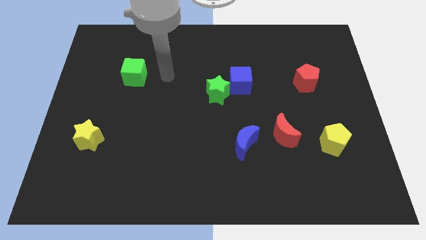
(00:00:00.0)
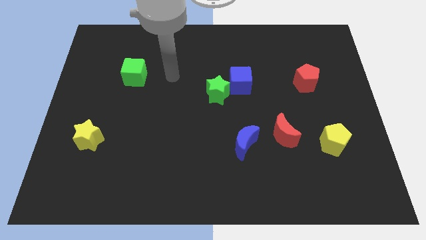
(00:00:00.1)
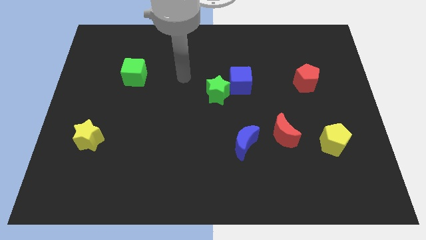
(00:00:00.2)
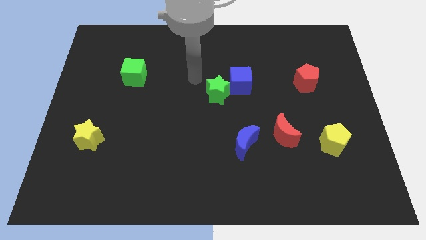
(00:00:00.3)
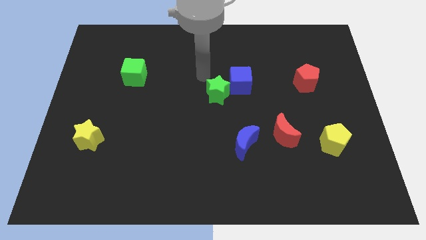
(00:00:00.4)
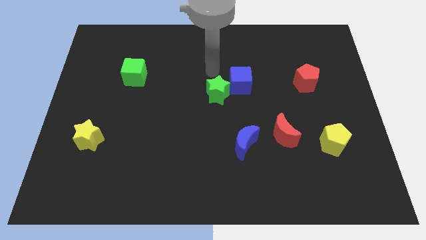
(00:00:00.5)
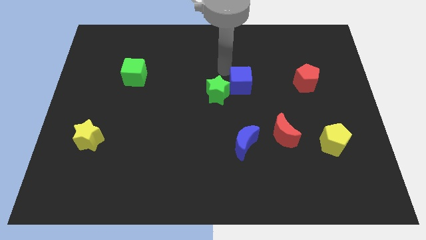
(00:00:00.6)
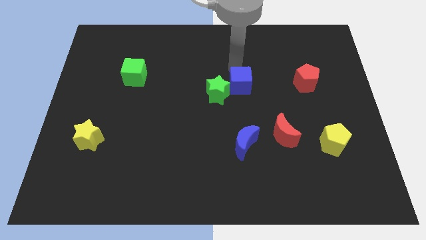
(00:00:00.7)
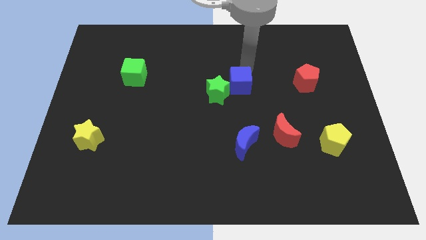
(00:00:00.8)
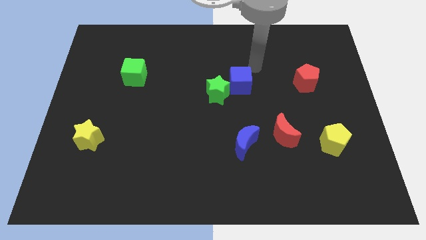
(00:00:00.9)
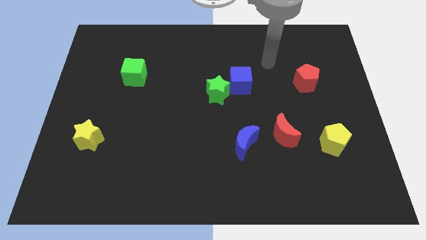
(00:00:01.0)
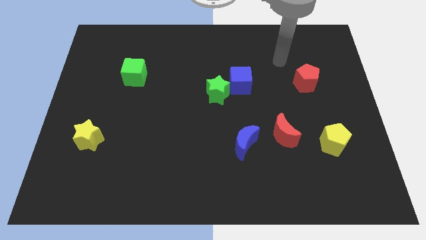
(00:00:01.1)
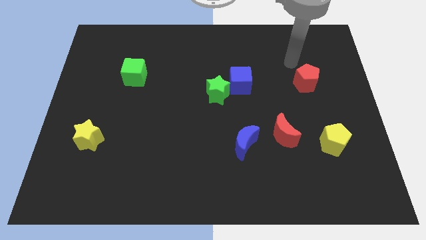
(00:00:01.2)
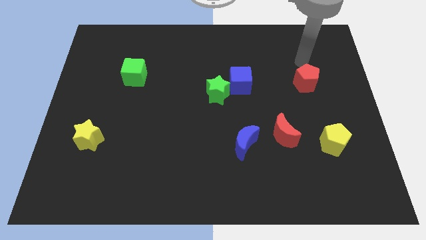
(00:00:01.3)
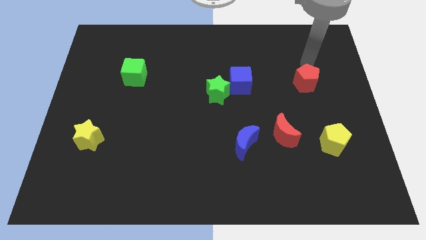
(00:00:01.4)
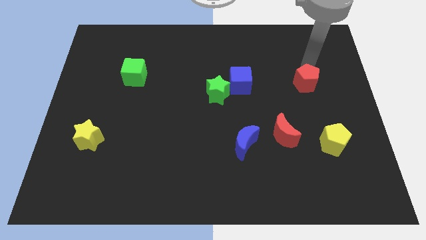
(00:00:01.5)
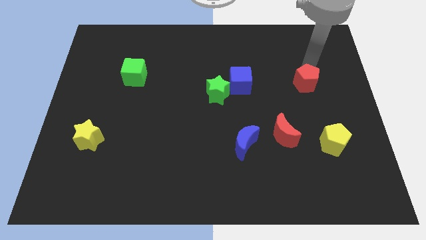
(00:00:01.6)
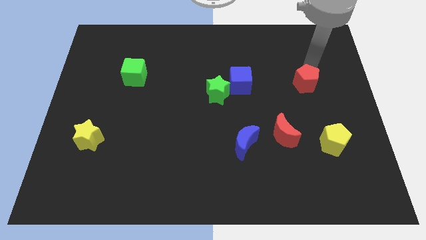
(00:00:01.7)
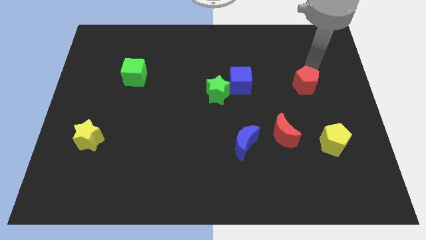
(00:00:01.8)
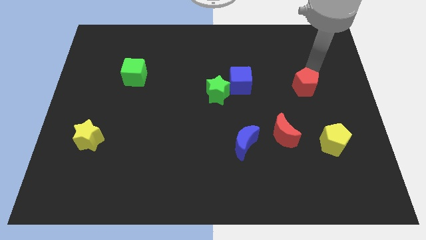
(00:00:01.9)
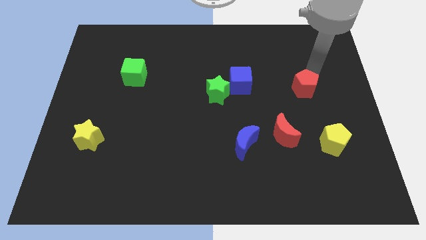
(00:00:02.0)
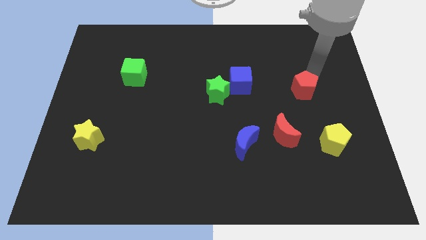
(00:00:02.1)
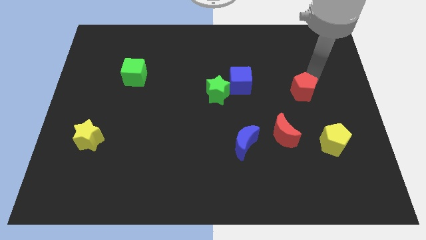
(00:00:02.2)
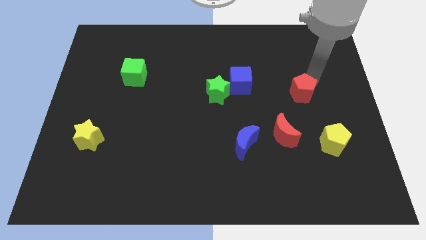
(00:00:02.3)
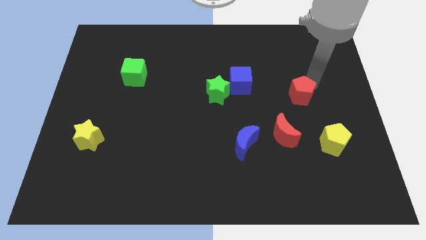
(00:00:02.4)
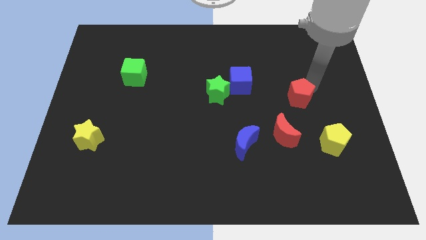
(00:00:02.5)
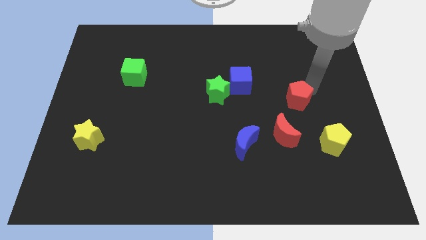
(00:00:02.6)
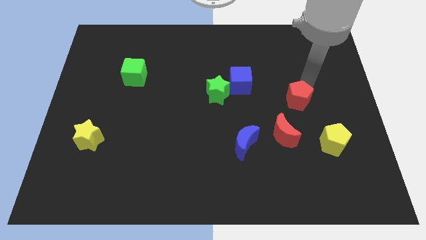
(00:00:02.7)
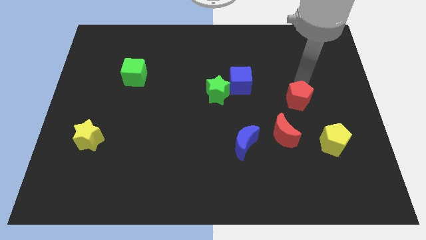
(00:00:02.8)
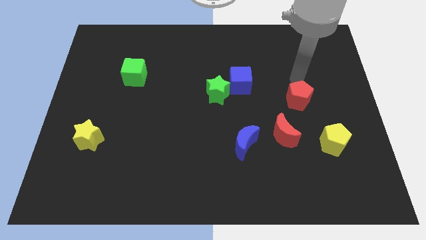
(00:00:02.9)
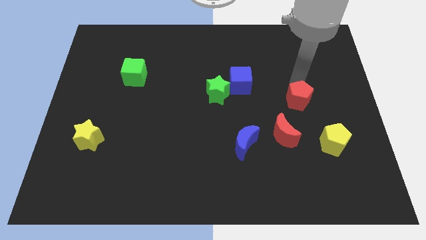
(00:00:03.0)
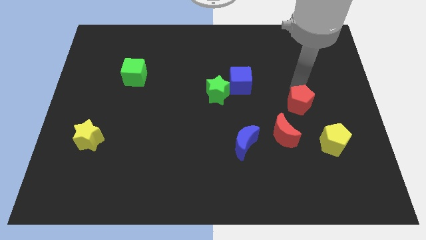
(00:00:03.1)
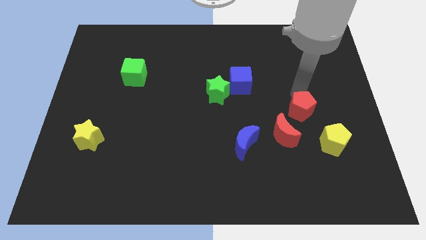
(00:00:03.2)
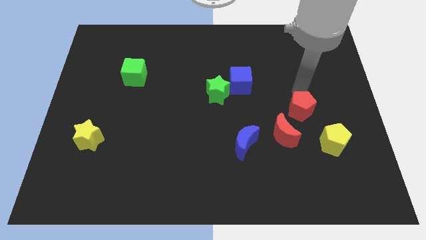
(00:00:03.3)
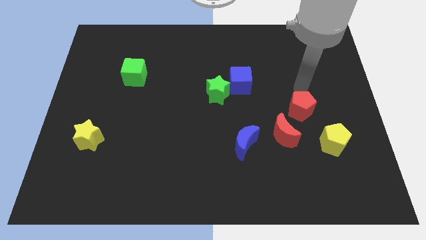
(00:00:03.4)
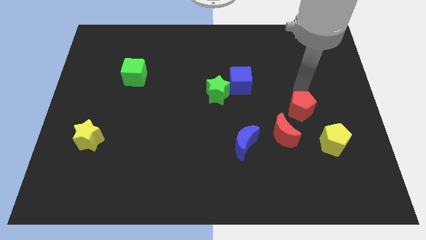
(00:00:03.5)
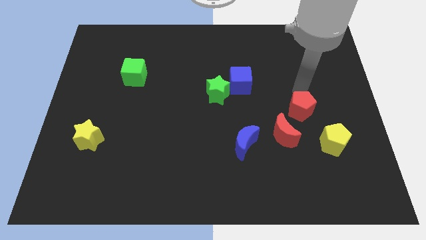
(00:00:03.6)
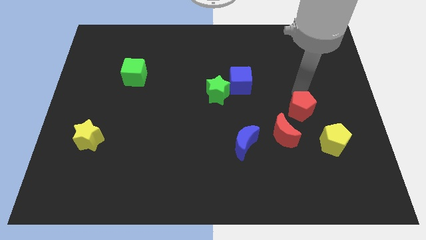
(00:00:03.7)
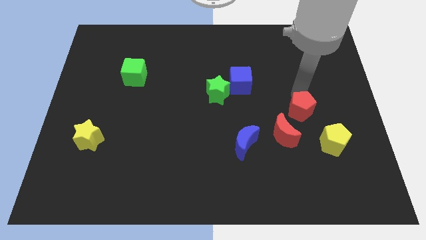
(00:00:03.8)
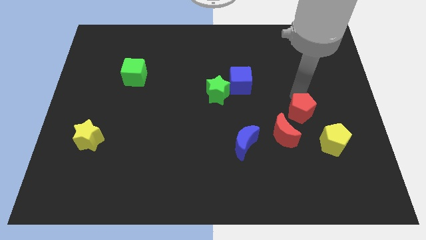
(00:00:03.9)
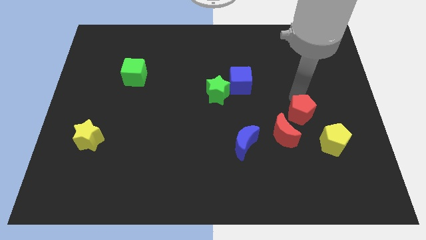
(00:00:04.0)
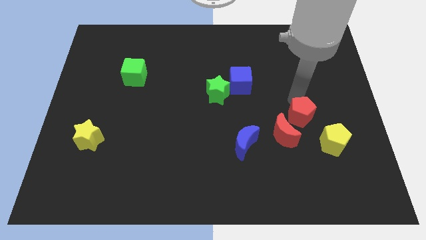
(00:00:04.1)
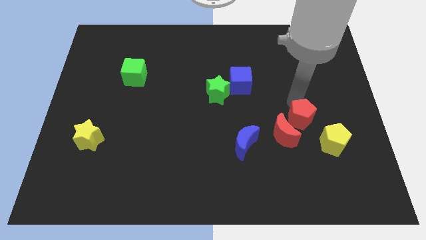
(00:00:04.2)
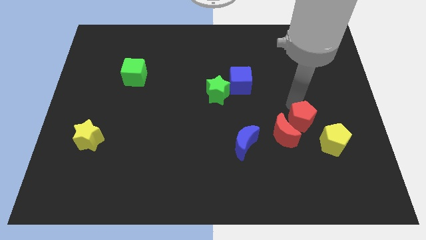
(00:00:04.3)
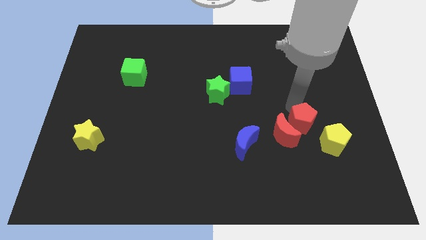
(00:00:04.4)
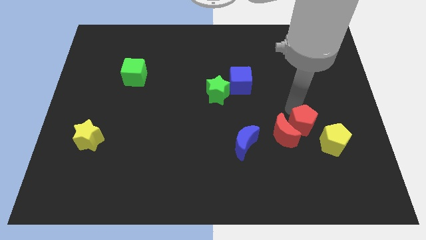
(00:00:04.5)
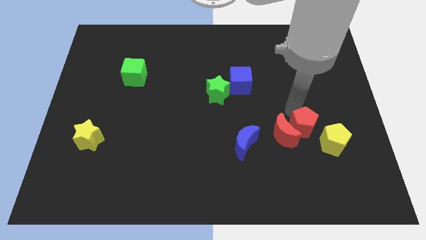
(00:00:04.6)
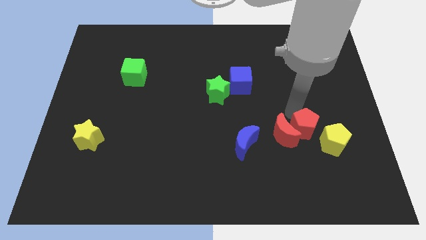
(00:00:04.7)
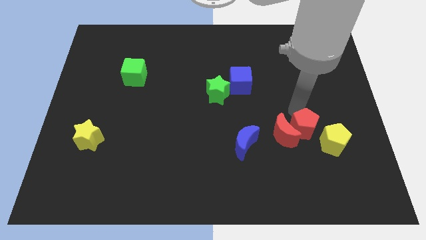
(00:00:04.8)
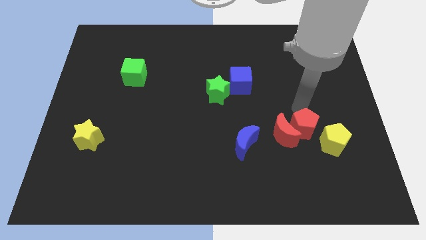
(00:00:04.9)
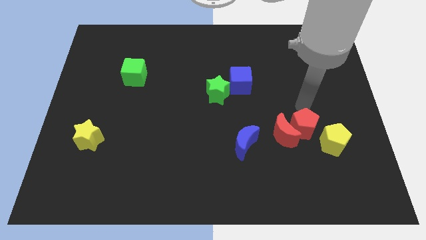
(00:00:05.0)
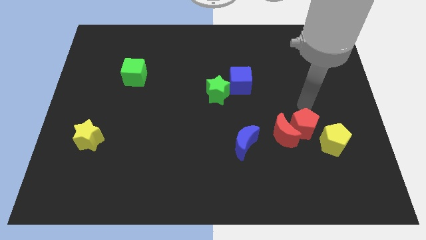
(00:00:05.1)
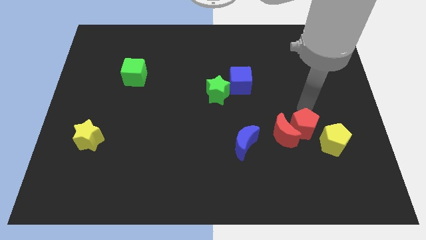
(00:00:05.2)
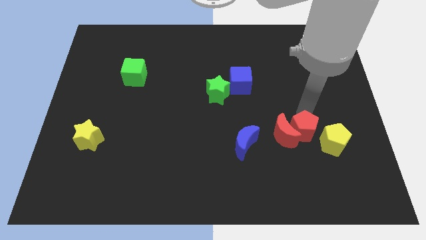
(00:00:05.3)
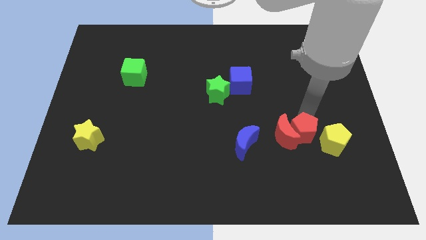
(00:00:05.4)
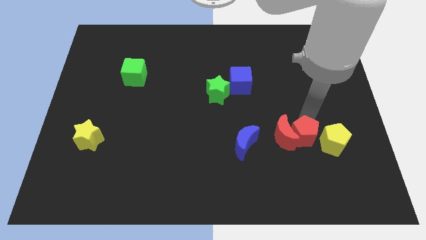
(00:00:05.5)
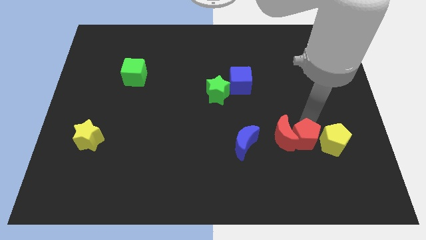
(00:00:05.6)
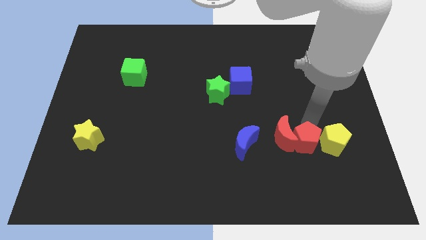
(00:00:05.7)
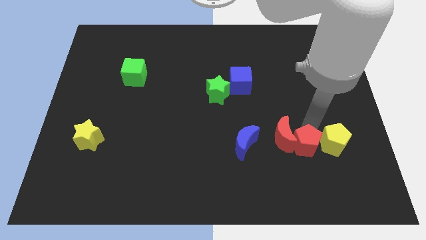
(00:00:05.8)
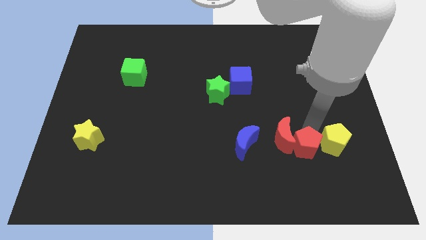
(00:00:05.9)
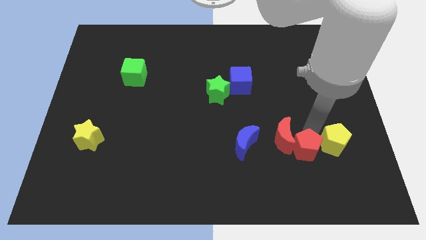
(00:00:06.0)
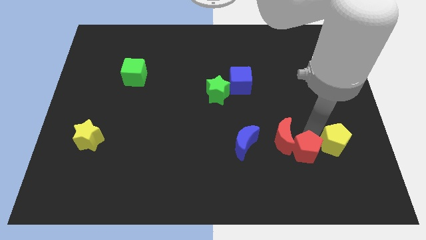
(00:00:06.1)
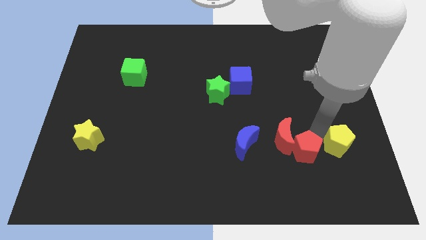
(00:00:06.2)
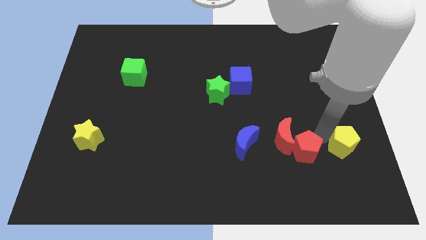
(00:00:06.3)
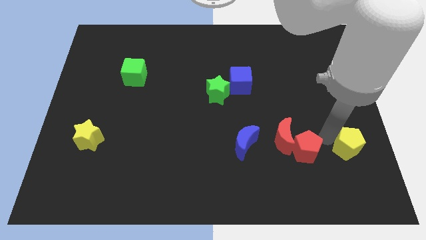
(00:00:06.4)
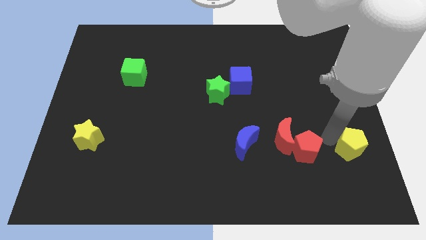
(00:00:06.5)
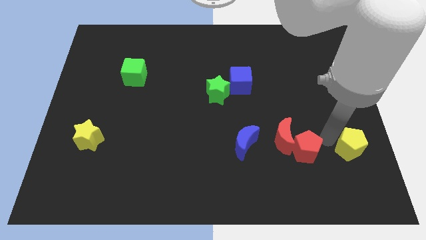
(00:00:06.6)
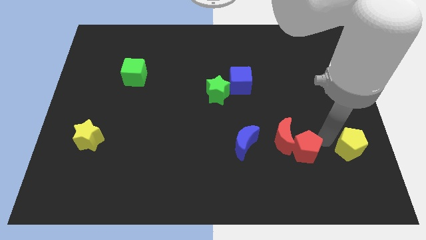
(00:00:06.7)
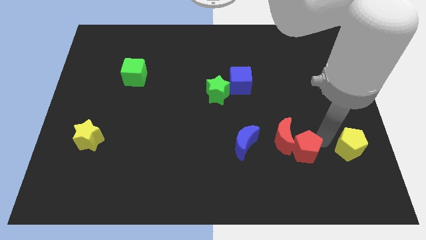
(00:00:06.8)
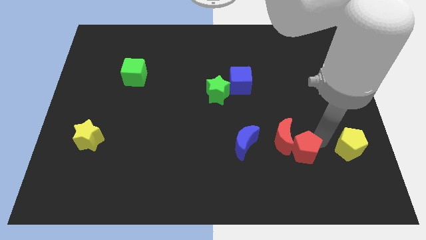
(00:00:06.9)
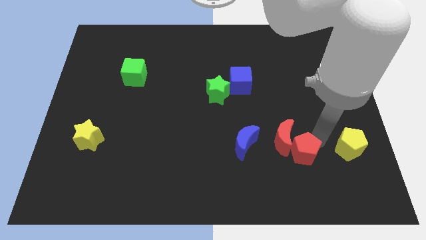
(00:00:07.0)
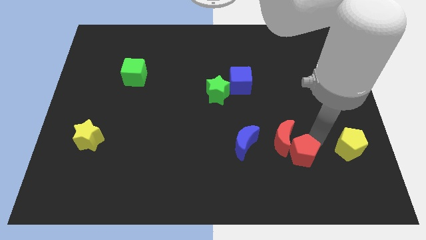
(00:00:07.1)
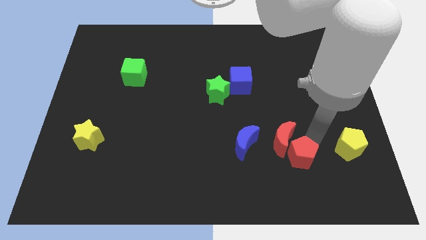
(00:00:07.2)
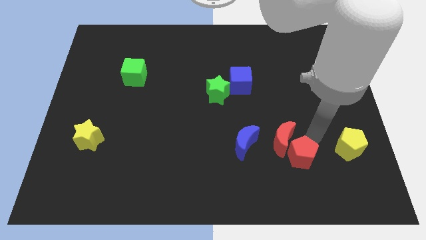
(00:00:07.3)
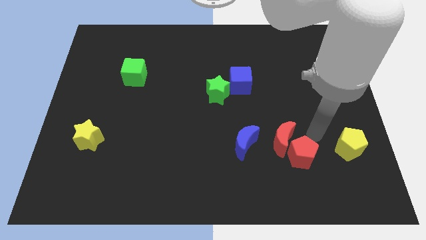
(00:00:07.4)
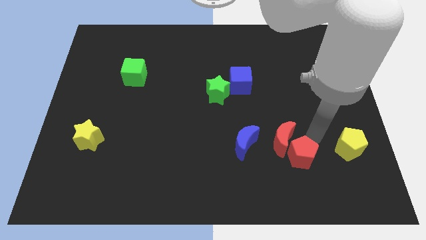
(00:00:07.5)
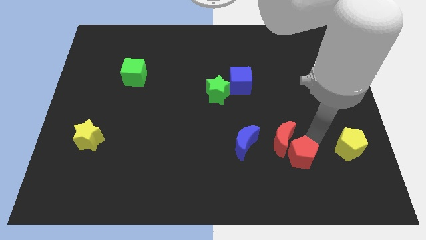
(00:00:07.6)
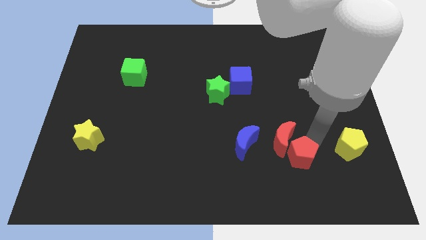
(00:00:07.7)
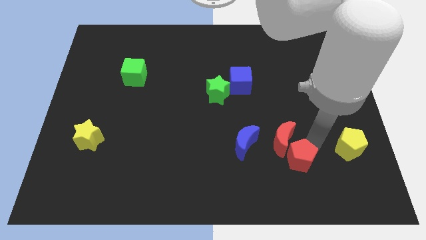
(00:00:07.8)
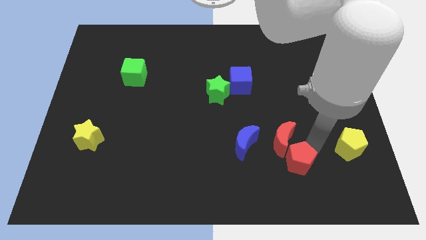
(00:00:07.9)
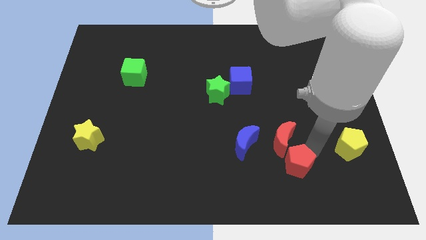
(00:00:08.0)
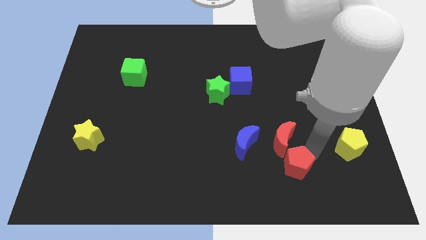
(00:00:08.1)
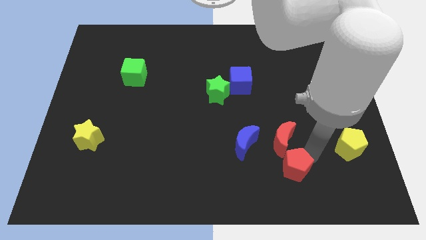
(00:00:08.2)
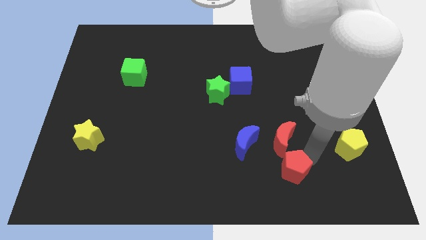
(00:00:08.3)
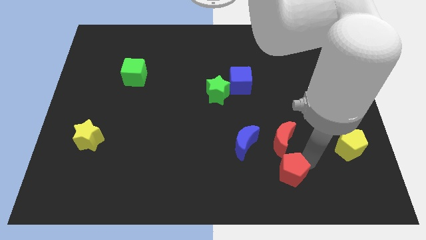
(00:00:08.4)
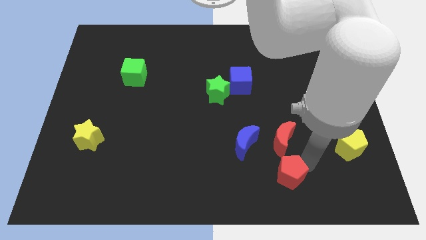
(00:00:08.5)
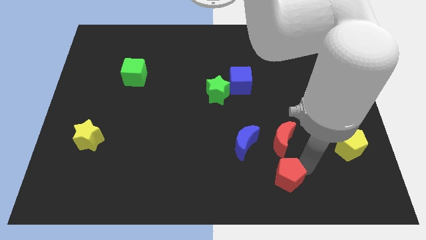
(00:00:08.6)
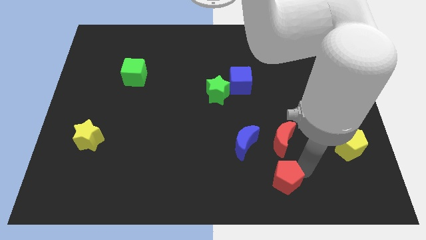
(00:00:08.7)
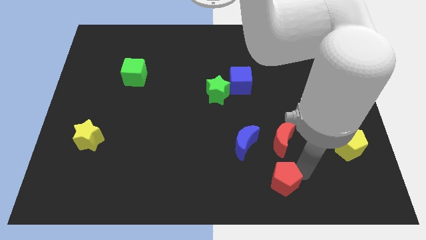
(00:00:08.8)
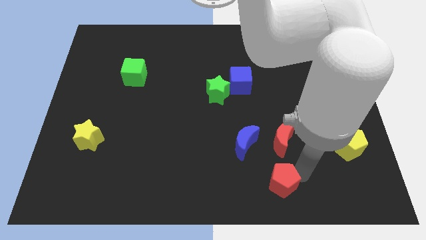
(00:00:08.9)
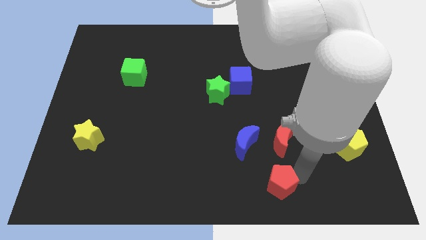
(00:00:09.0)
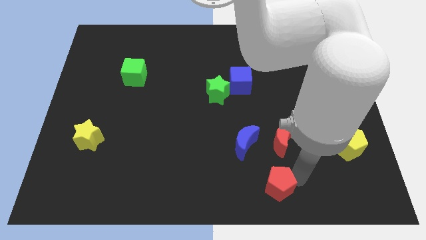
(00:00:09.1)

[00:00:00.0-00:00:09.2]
push the red pentagon to the bottom
